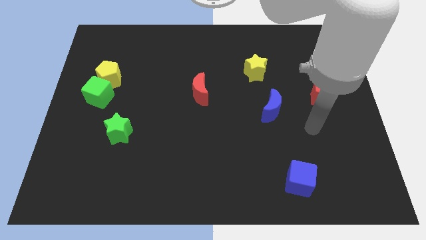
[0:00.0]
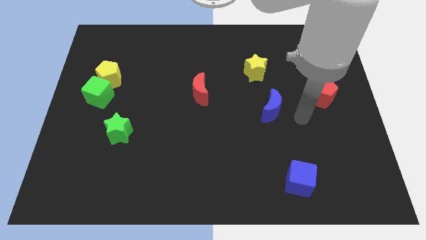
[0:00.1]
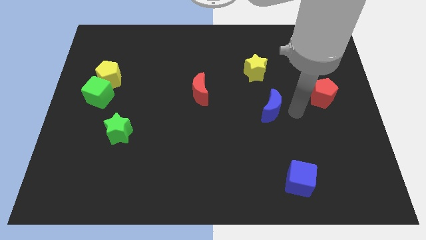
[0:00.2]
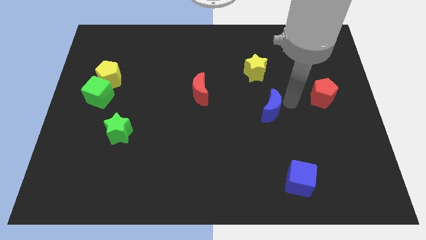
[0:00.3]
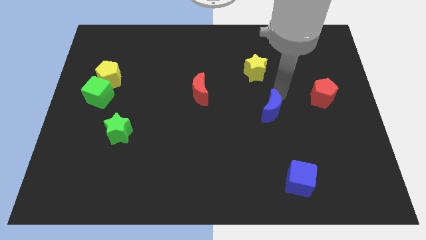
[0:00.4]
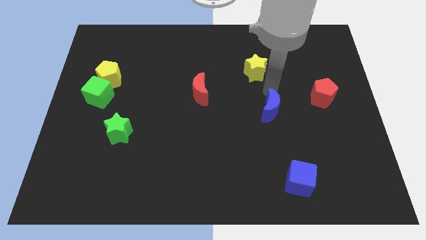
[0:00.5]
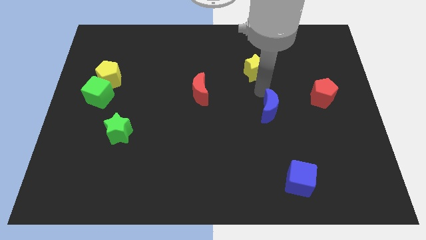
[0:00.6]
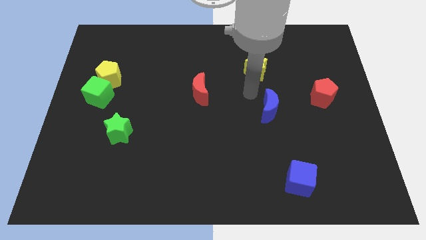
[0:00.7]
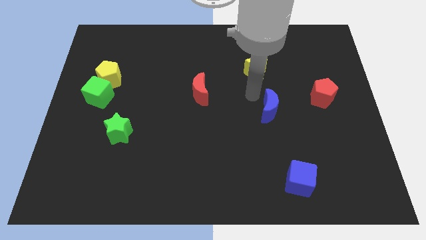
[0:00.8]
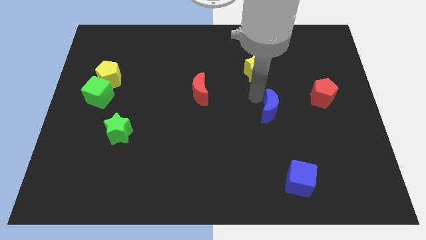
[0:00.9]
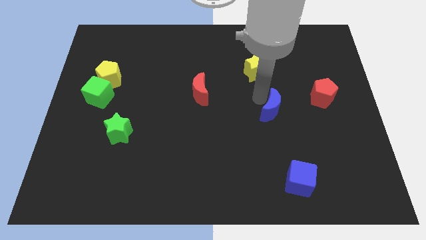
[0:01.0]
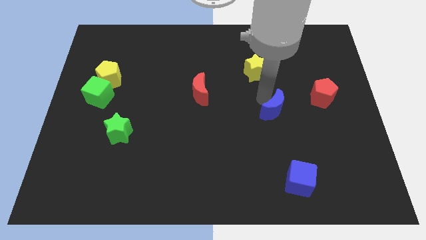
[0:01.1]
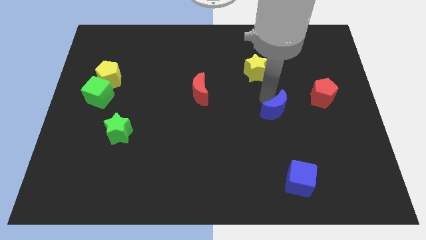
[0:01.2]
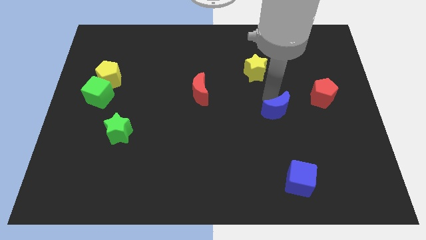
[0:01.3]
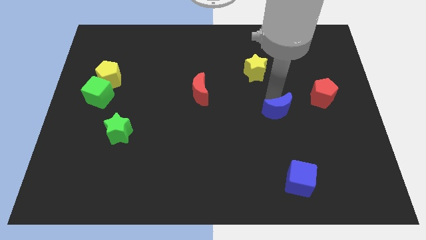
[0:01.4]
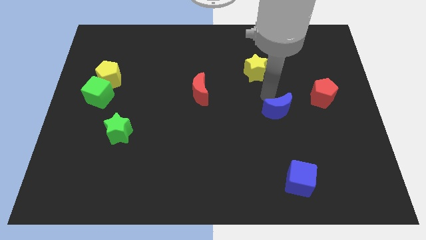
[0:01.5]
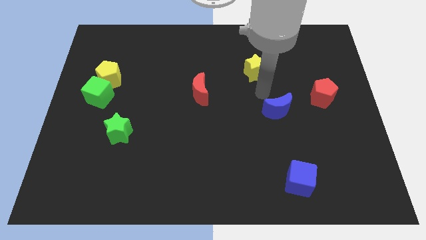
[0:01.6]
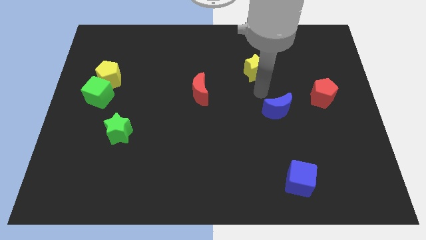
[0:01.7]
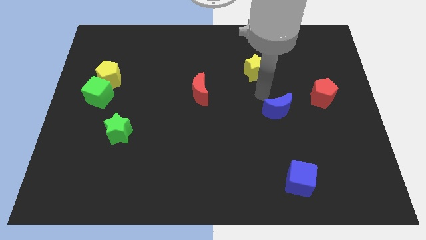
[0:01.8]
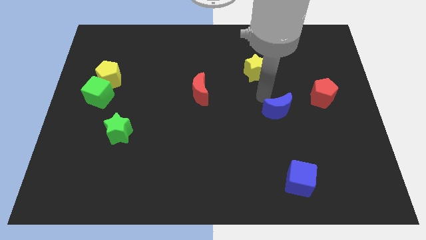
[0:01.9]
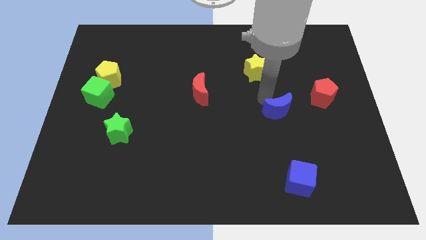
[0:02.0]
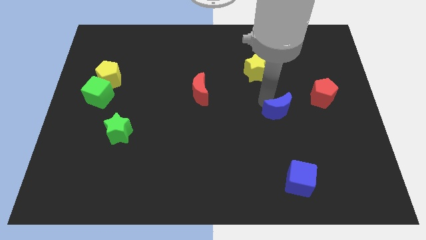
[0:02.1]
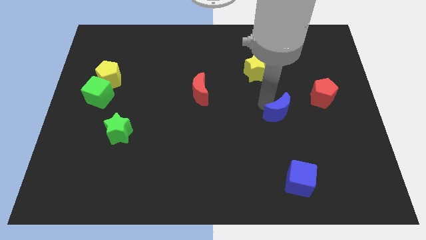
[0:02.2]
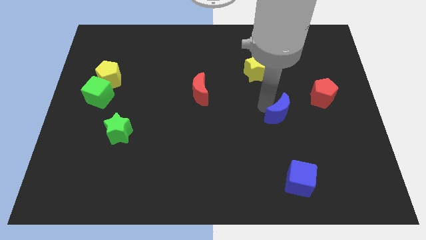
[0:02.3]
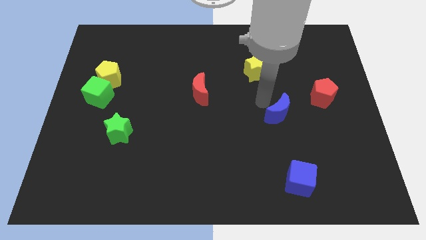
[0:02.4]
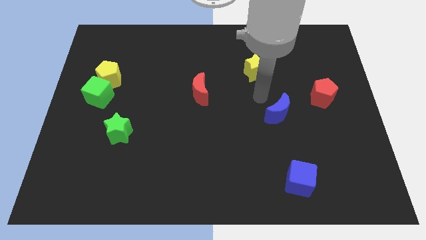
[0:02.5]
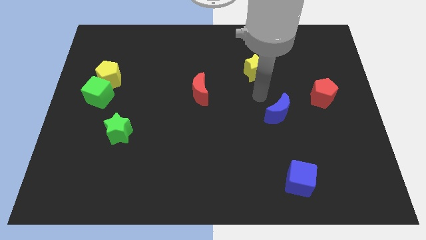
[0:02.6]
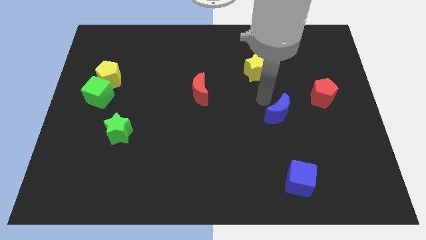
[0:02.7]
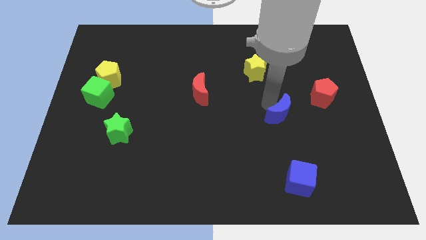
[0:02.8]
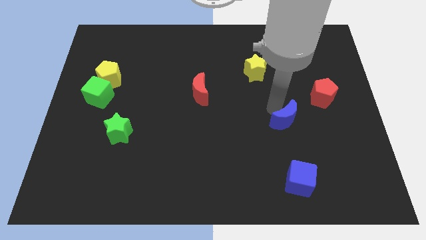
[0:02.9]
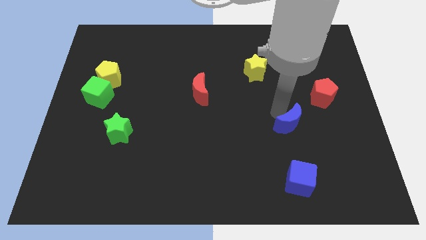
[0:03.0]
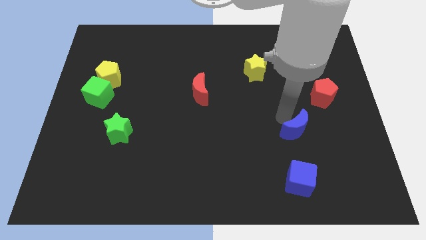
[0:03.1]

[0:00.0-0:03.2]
slide the blue moon somewhat downwards and right diagonally

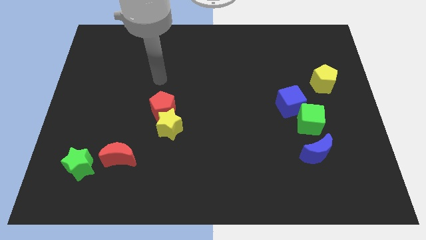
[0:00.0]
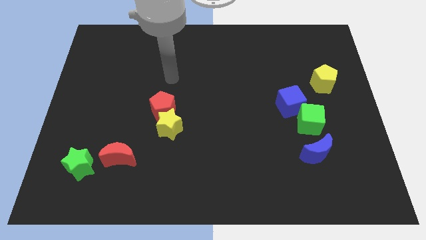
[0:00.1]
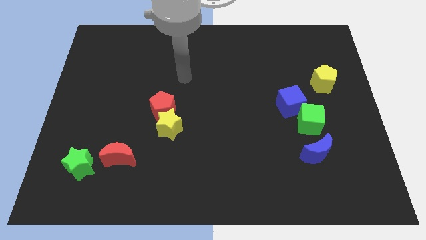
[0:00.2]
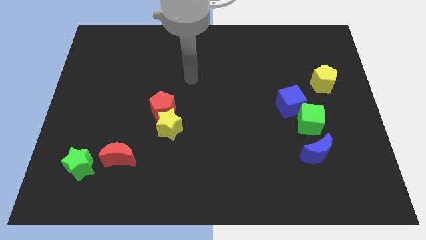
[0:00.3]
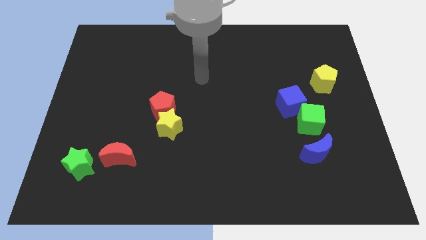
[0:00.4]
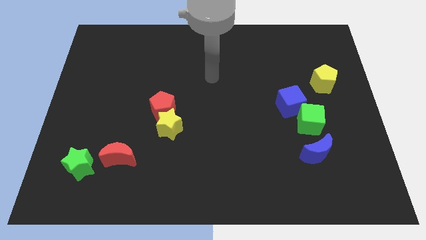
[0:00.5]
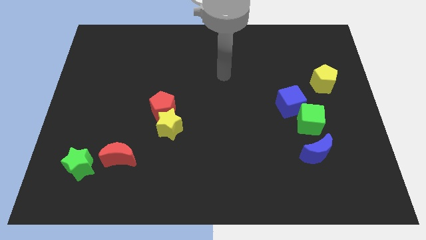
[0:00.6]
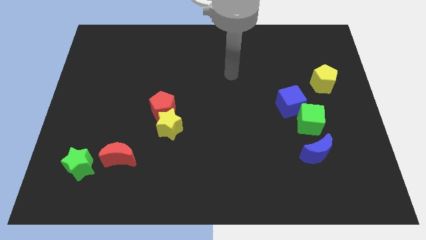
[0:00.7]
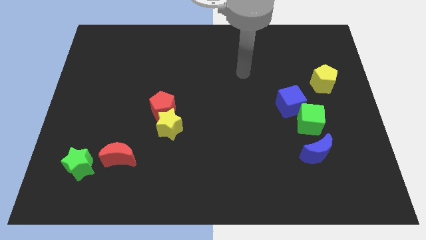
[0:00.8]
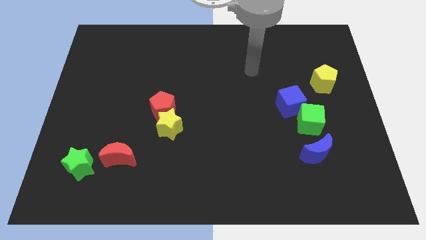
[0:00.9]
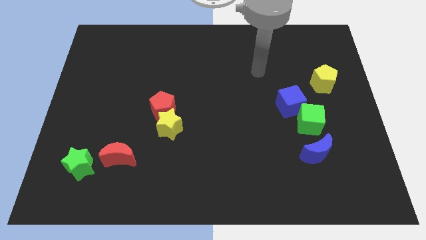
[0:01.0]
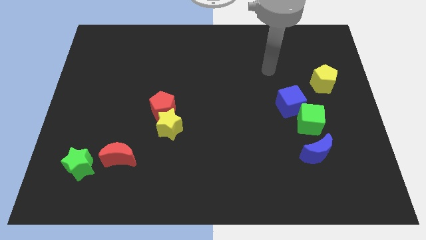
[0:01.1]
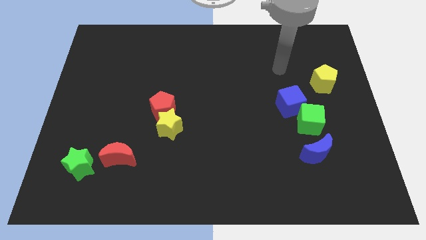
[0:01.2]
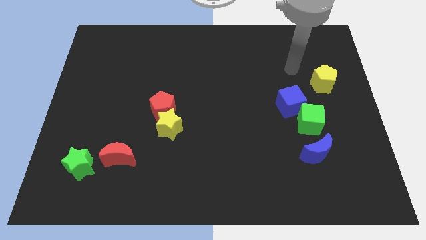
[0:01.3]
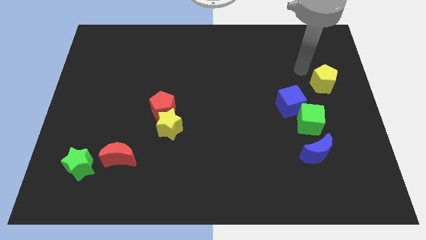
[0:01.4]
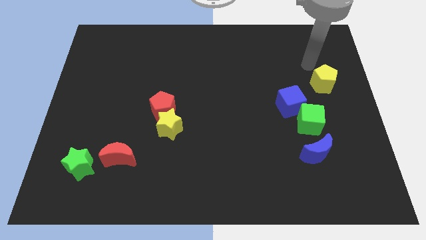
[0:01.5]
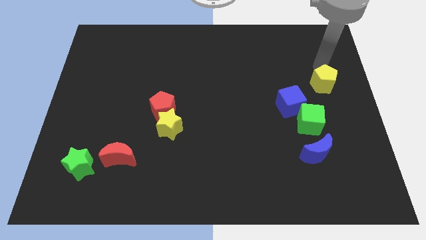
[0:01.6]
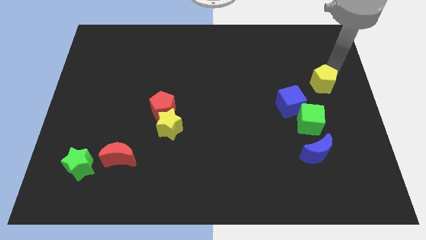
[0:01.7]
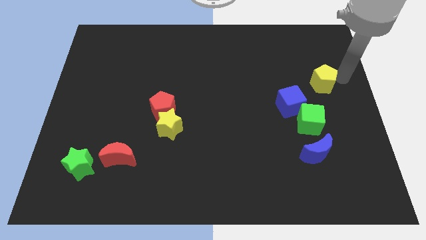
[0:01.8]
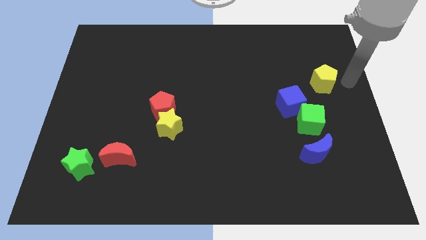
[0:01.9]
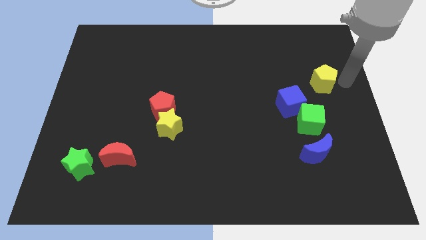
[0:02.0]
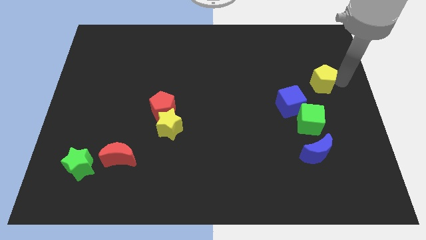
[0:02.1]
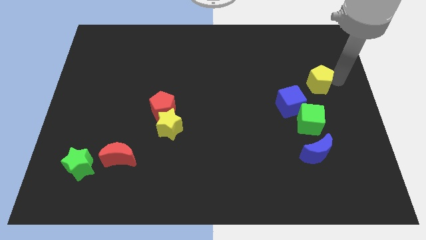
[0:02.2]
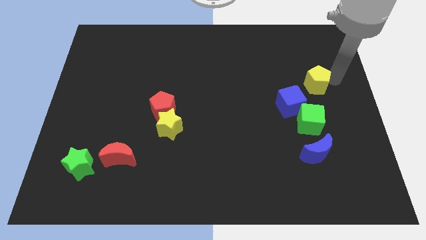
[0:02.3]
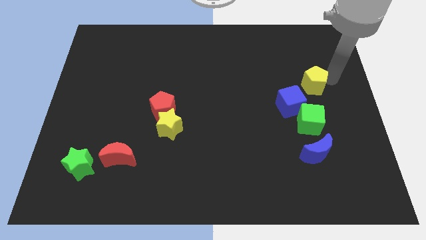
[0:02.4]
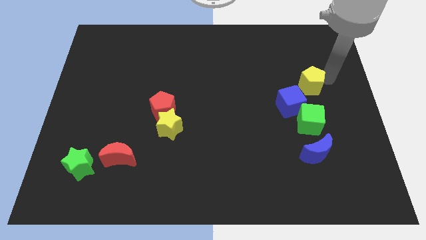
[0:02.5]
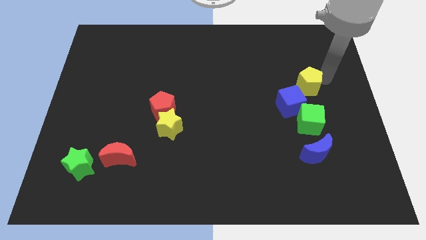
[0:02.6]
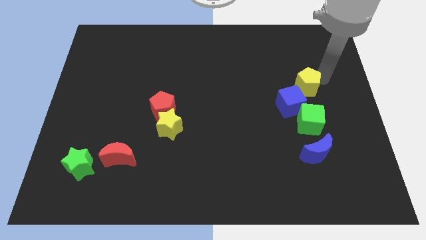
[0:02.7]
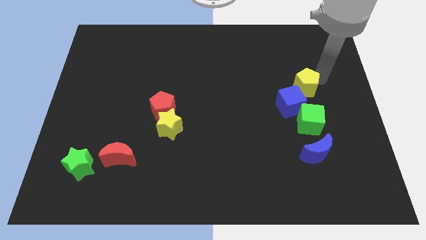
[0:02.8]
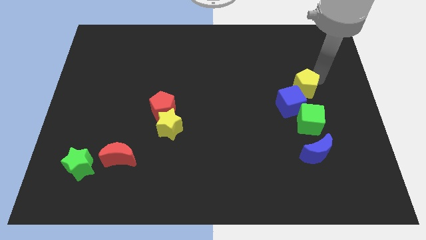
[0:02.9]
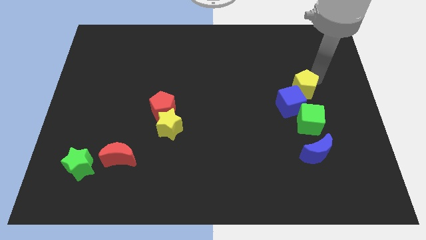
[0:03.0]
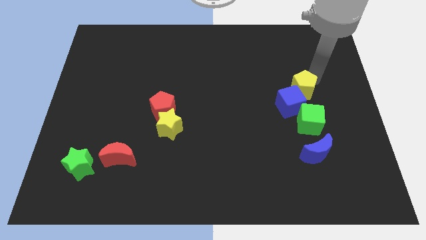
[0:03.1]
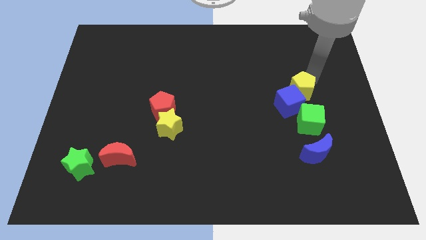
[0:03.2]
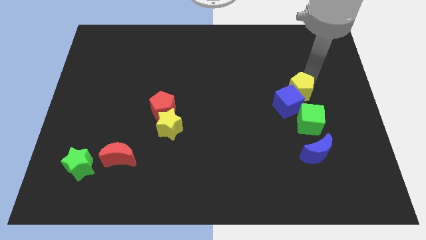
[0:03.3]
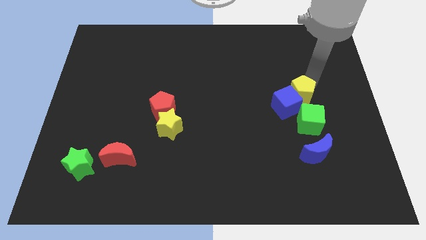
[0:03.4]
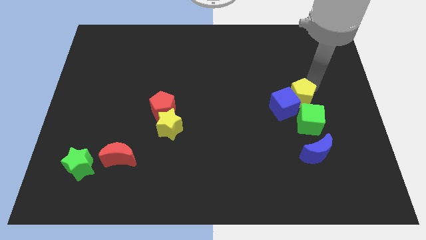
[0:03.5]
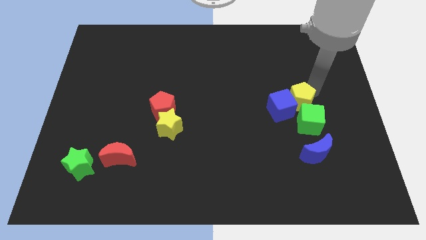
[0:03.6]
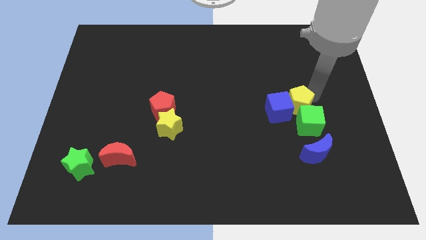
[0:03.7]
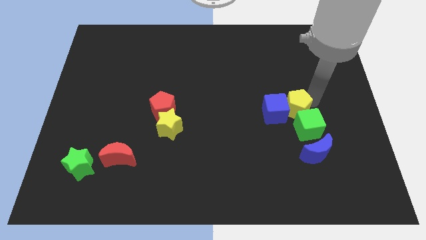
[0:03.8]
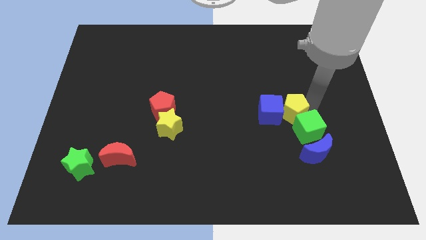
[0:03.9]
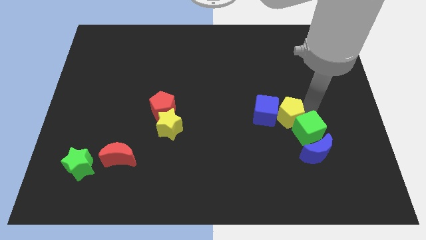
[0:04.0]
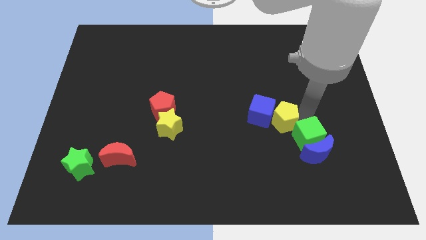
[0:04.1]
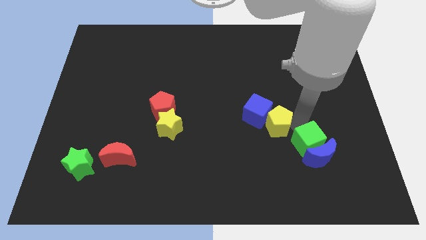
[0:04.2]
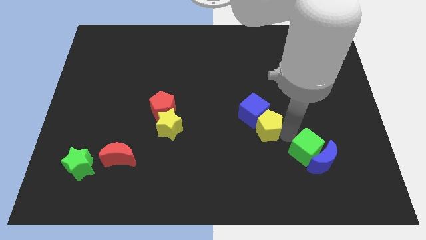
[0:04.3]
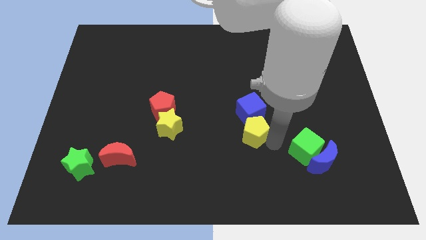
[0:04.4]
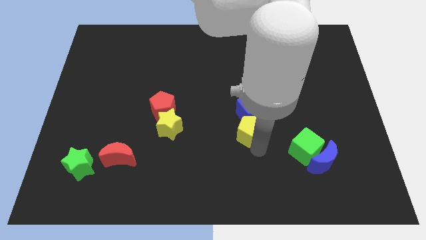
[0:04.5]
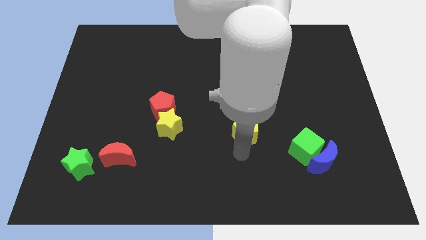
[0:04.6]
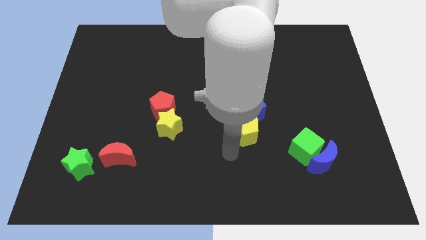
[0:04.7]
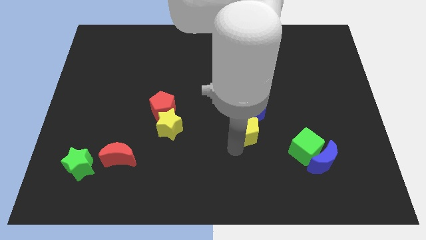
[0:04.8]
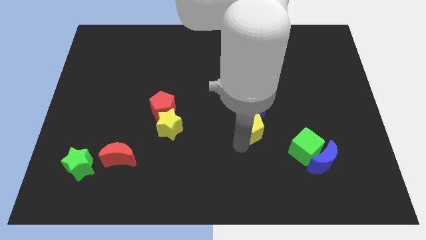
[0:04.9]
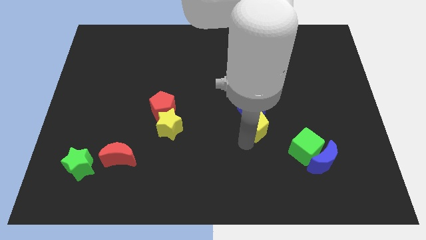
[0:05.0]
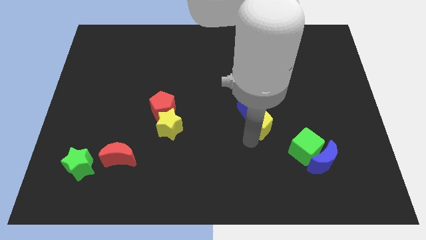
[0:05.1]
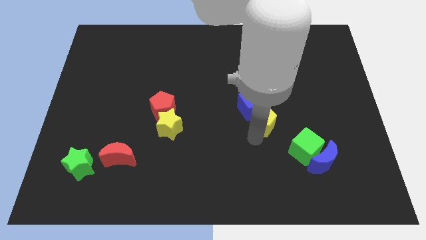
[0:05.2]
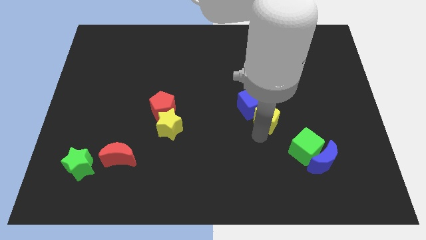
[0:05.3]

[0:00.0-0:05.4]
slide the yellow pentagon left slightly
